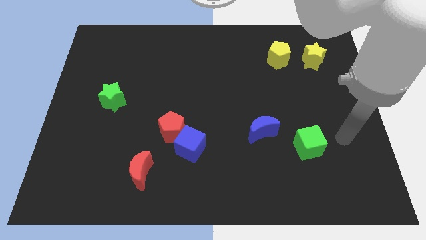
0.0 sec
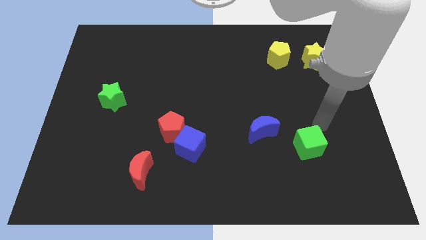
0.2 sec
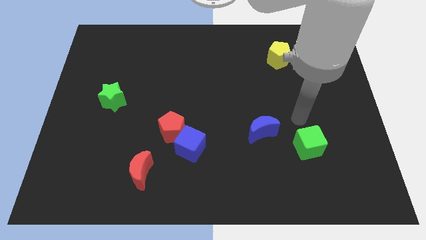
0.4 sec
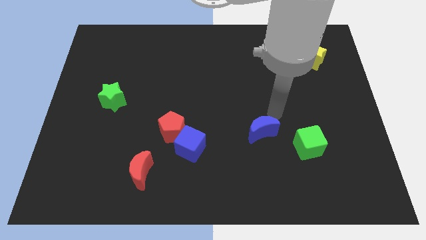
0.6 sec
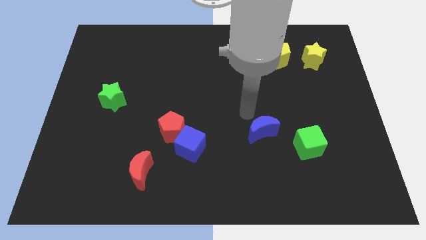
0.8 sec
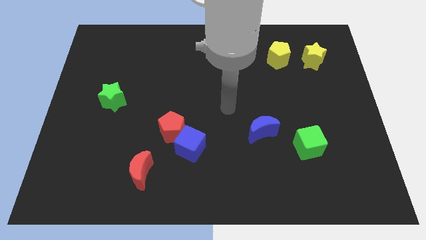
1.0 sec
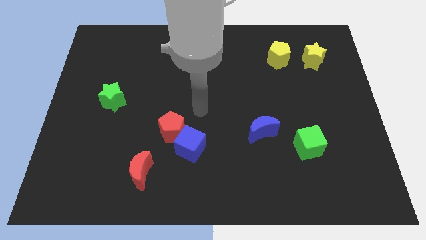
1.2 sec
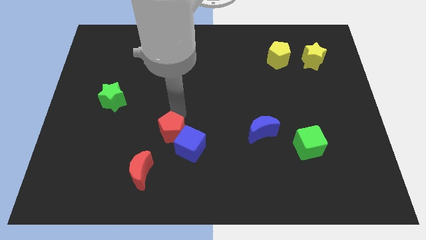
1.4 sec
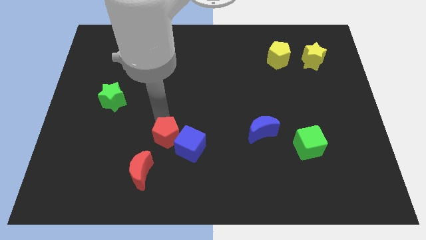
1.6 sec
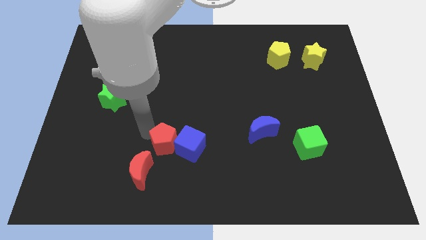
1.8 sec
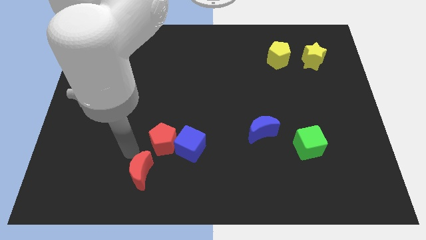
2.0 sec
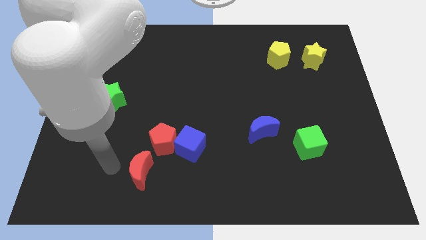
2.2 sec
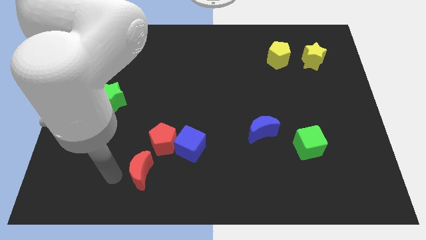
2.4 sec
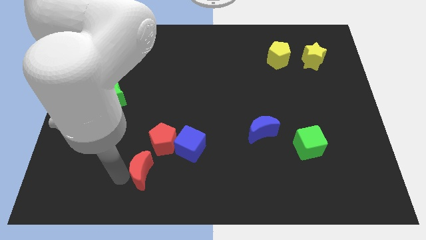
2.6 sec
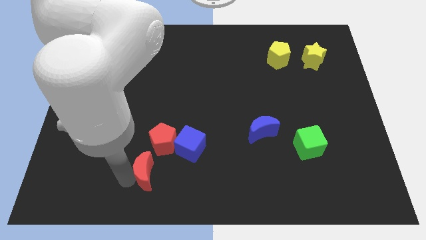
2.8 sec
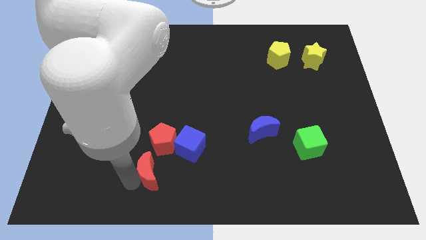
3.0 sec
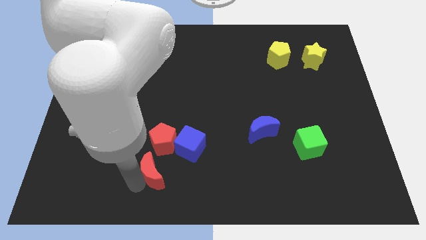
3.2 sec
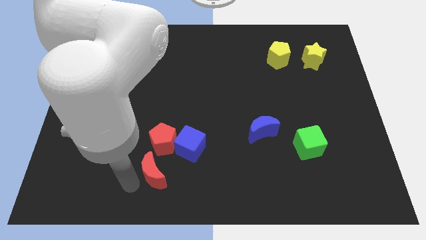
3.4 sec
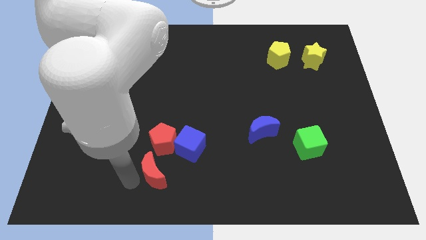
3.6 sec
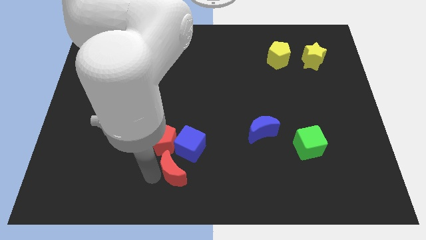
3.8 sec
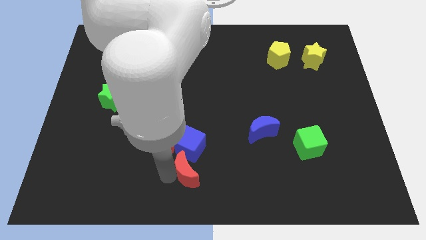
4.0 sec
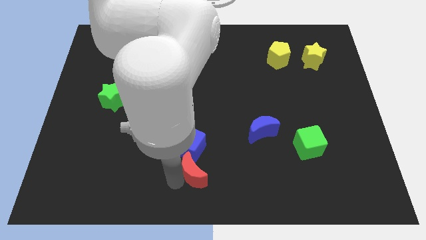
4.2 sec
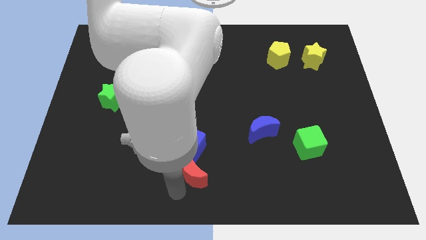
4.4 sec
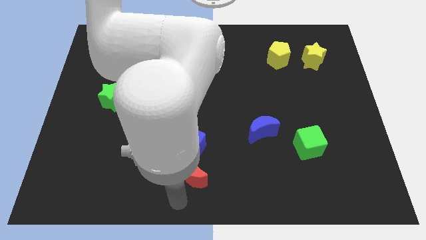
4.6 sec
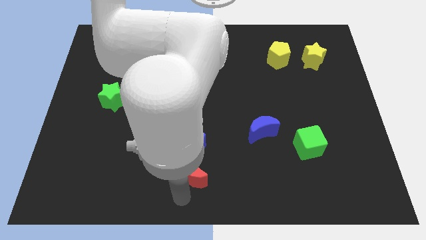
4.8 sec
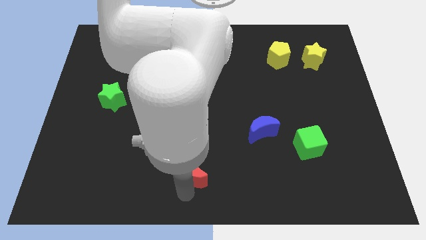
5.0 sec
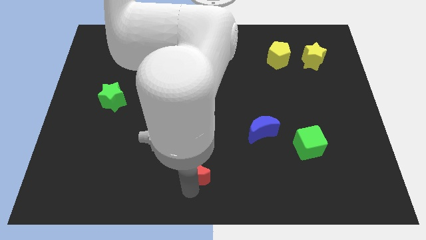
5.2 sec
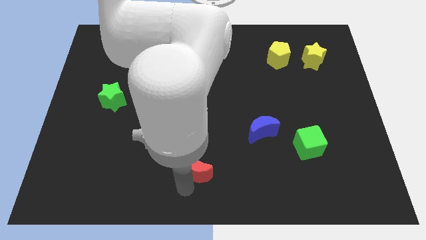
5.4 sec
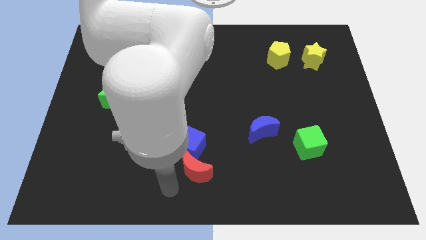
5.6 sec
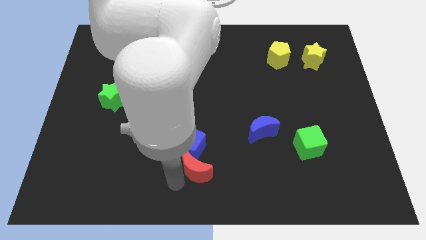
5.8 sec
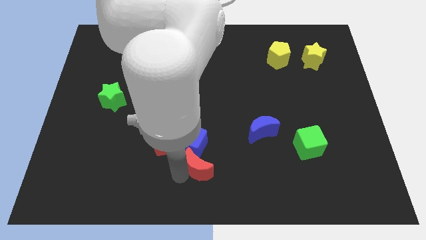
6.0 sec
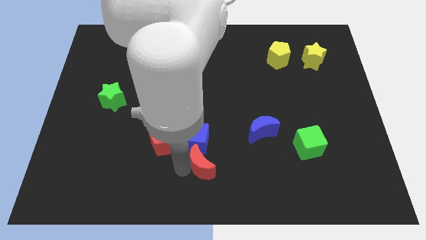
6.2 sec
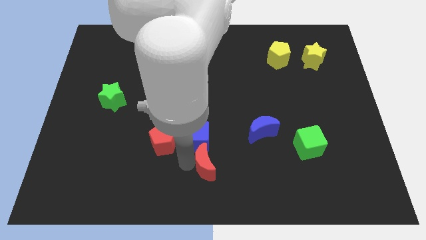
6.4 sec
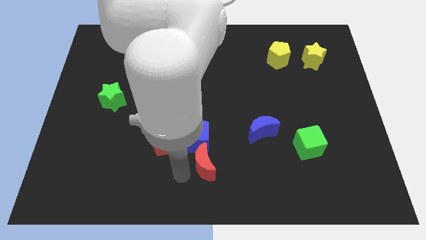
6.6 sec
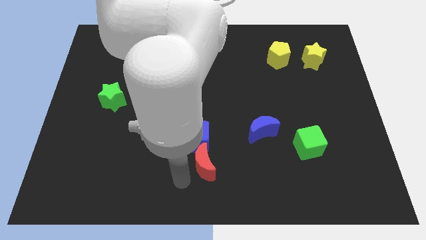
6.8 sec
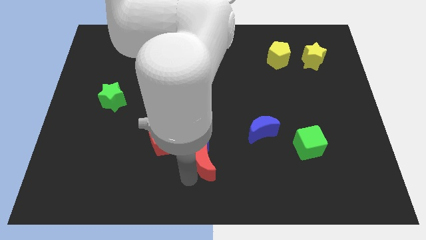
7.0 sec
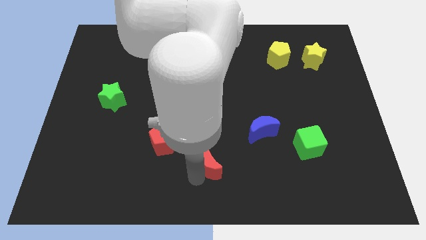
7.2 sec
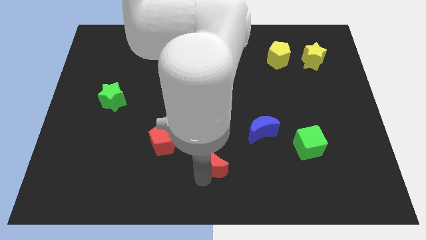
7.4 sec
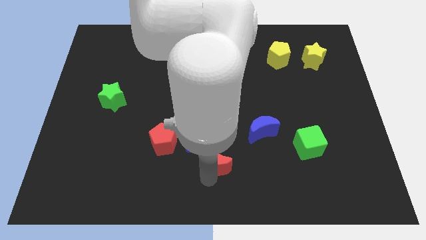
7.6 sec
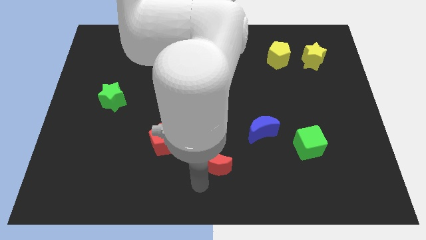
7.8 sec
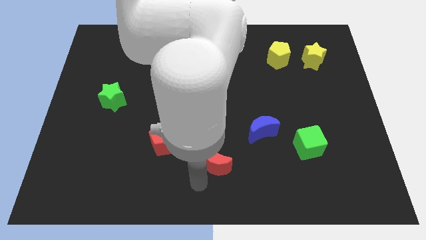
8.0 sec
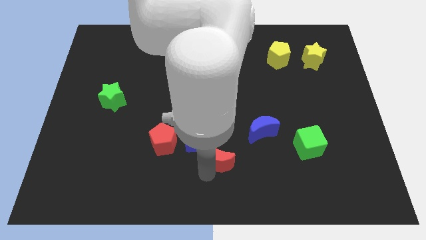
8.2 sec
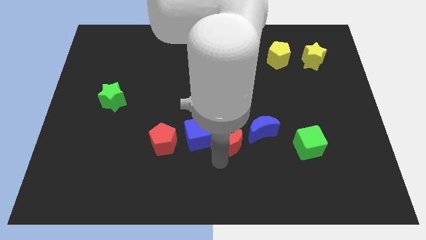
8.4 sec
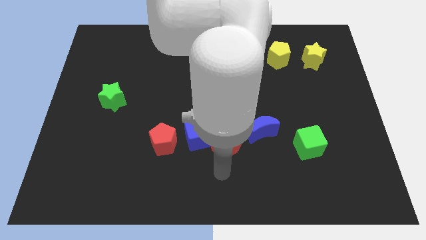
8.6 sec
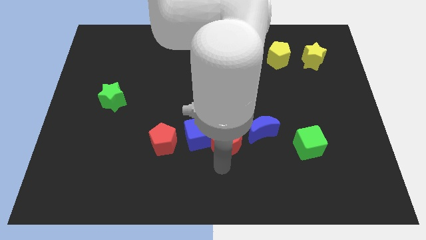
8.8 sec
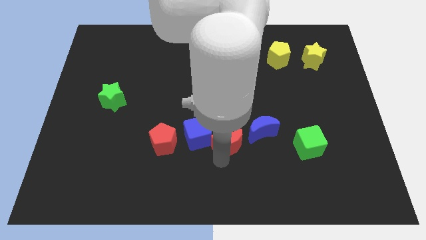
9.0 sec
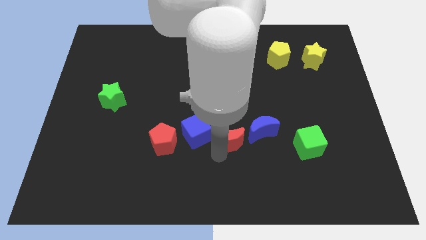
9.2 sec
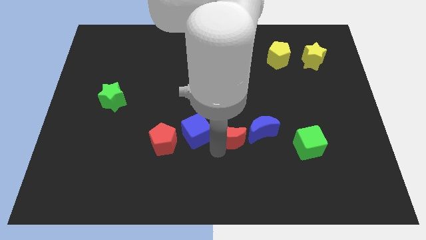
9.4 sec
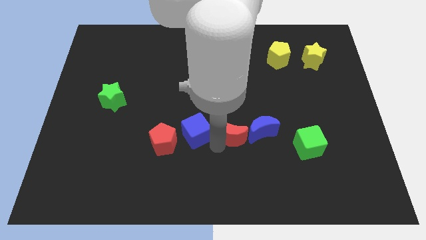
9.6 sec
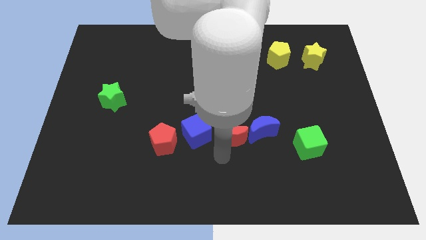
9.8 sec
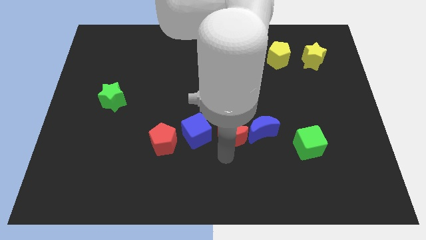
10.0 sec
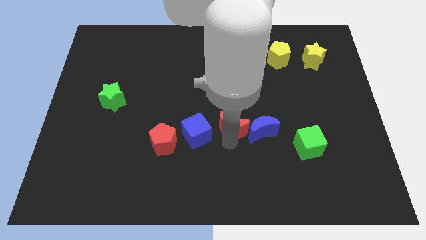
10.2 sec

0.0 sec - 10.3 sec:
put the red moon to the top left of the blue moon

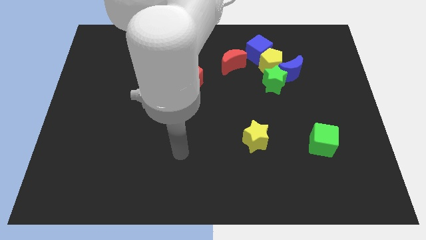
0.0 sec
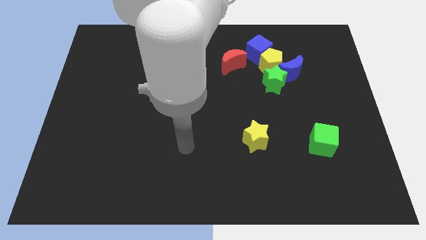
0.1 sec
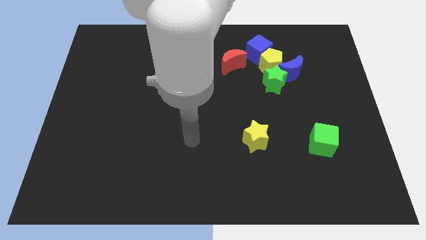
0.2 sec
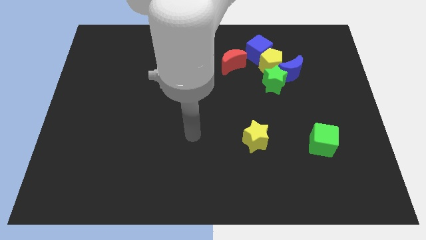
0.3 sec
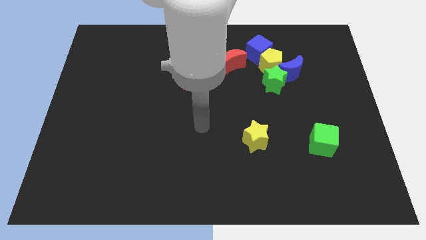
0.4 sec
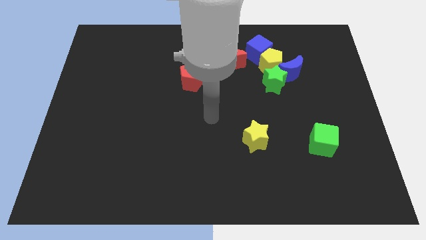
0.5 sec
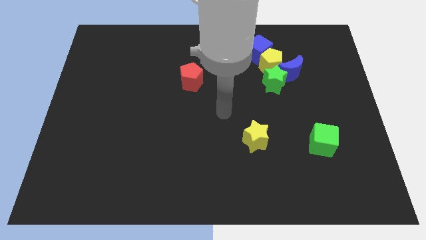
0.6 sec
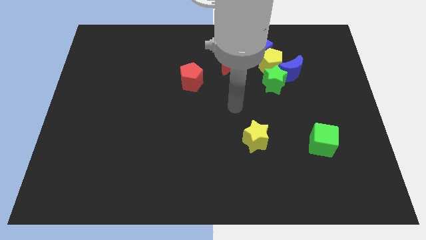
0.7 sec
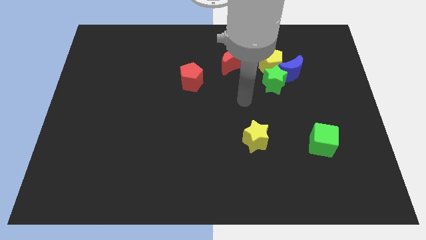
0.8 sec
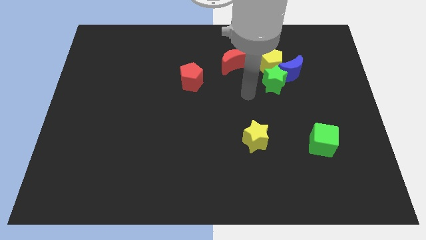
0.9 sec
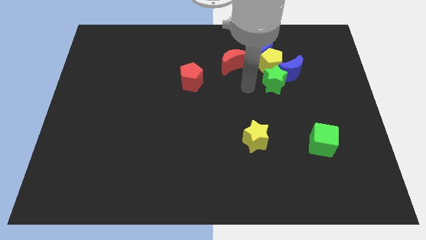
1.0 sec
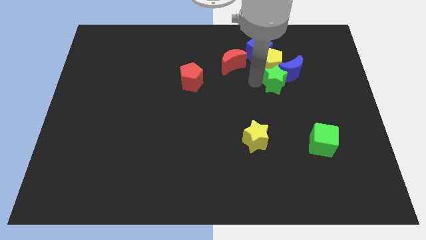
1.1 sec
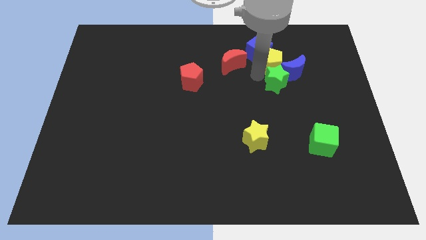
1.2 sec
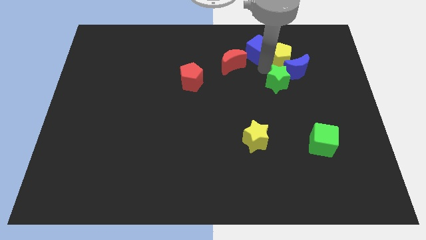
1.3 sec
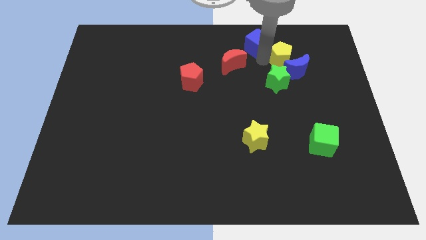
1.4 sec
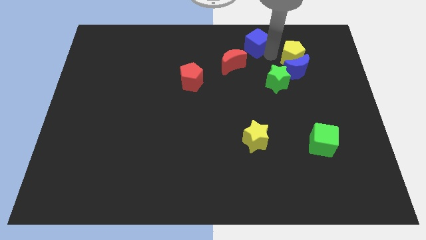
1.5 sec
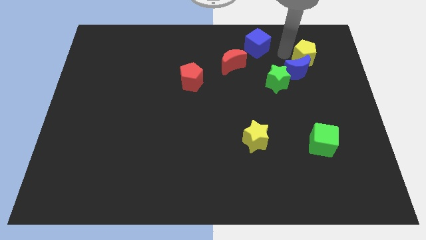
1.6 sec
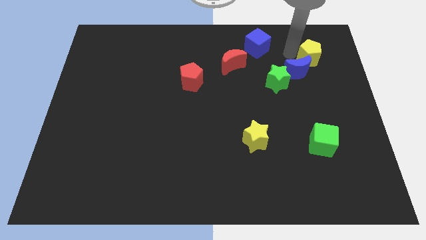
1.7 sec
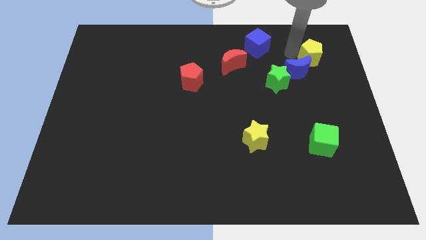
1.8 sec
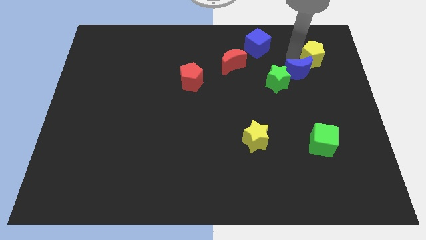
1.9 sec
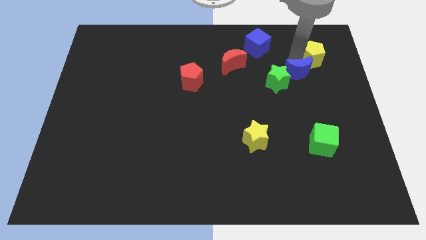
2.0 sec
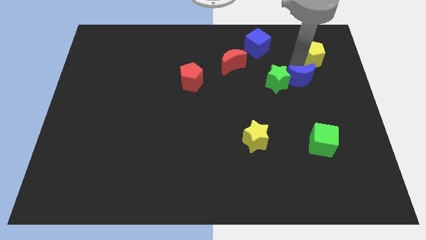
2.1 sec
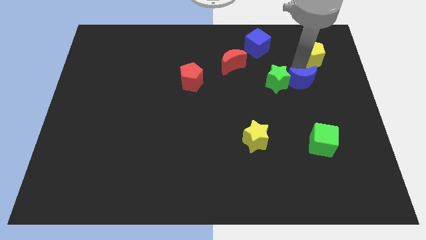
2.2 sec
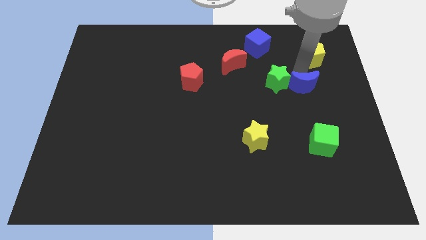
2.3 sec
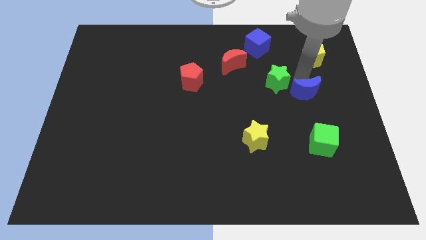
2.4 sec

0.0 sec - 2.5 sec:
slide the blue moon to the top side of the green cube

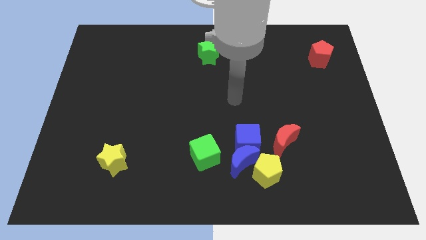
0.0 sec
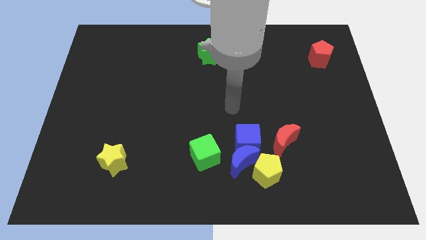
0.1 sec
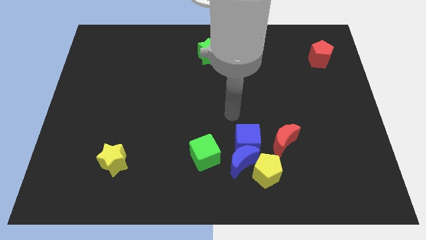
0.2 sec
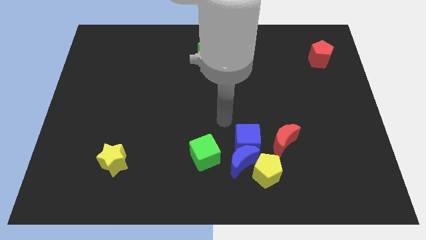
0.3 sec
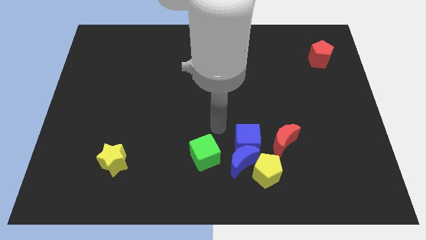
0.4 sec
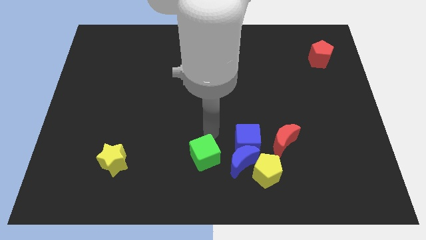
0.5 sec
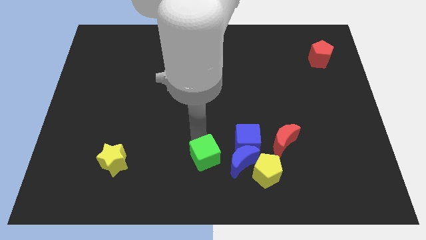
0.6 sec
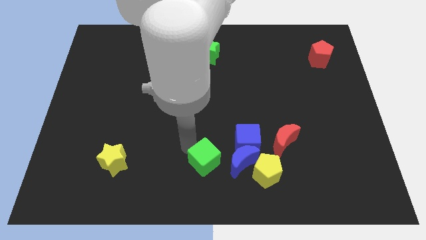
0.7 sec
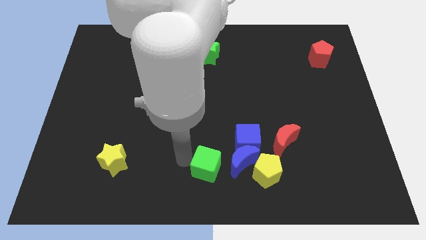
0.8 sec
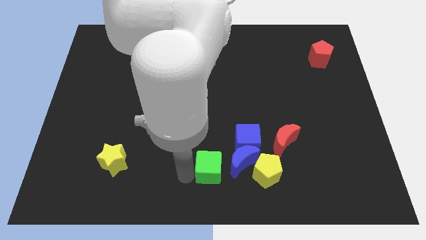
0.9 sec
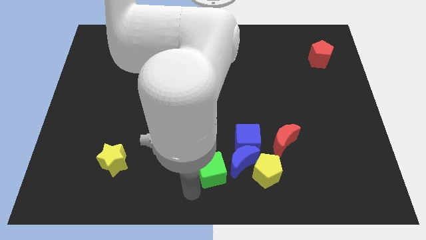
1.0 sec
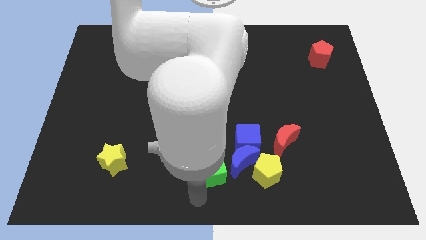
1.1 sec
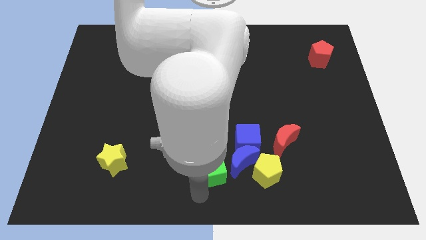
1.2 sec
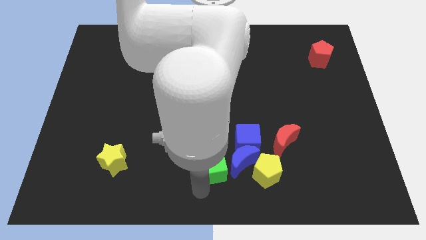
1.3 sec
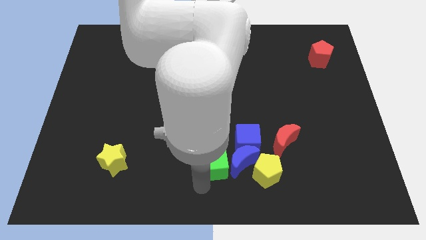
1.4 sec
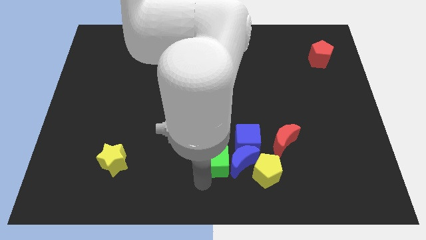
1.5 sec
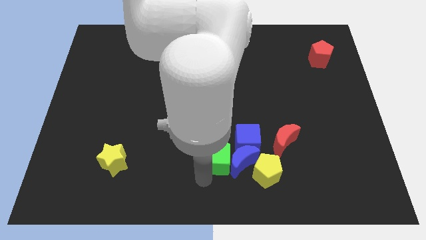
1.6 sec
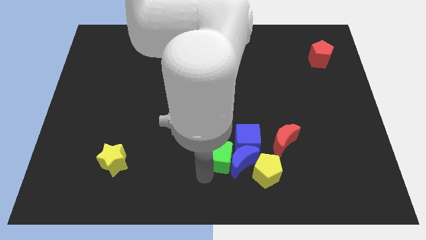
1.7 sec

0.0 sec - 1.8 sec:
push the green cube to the top left of the yellow pentagon
